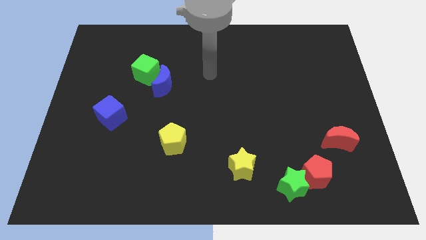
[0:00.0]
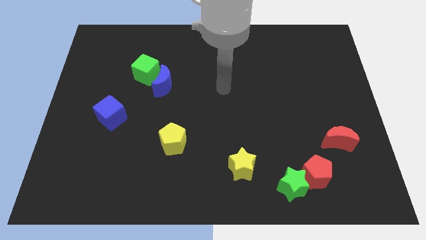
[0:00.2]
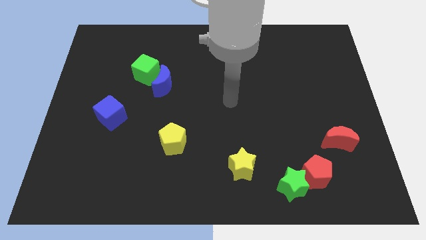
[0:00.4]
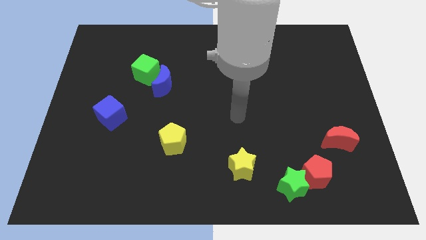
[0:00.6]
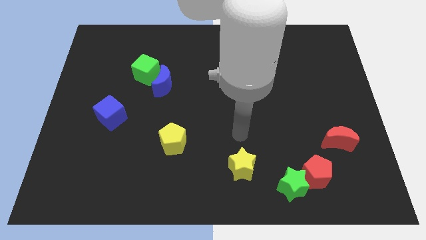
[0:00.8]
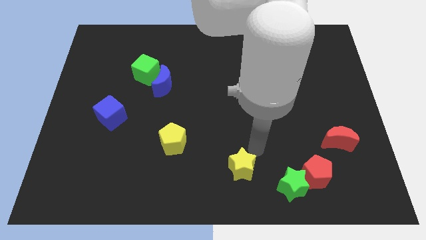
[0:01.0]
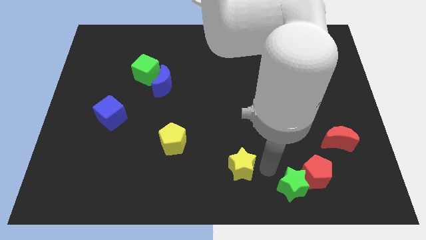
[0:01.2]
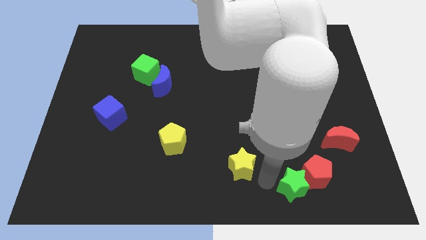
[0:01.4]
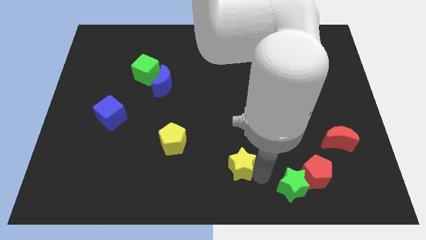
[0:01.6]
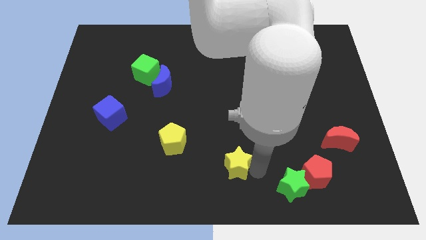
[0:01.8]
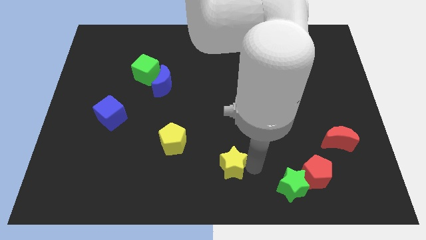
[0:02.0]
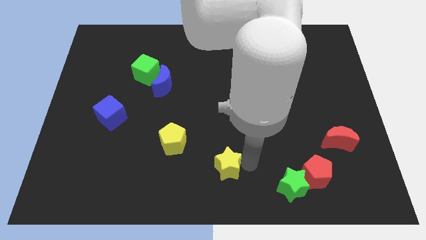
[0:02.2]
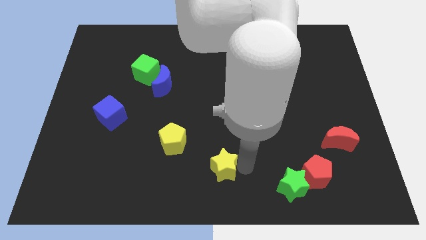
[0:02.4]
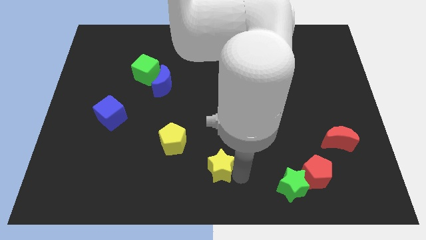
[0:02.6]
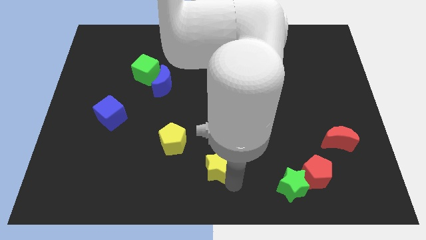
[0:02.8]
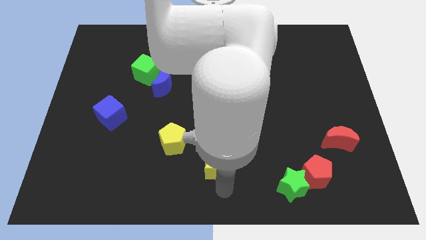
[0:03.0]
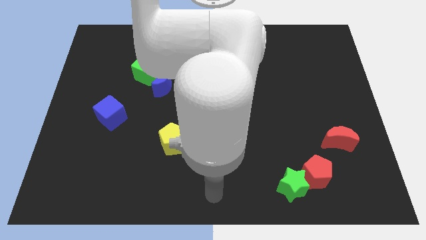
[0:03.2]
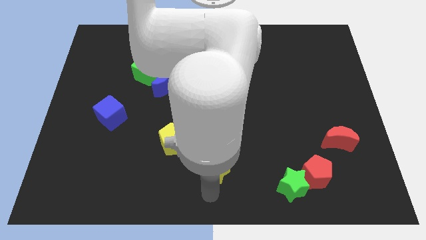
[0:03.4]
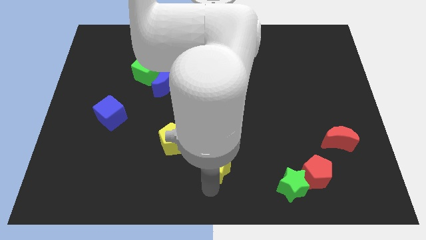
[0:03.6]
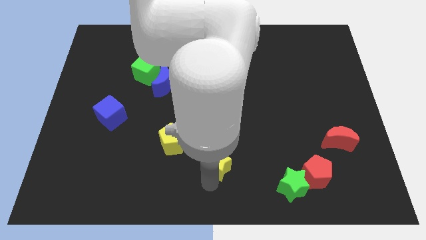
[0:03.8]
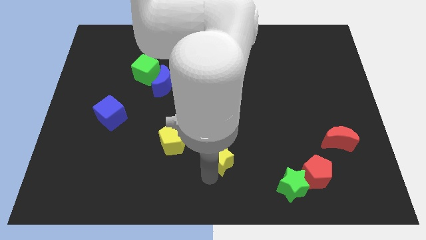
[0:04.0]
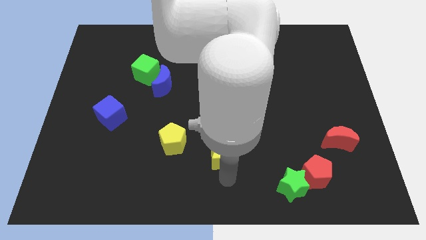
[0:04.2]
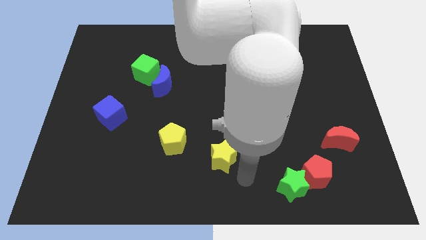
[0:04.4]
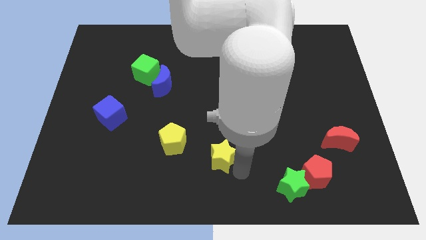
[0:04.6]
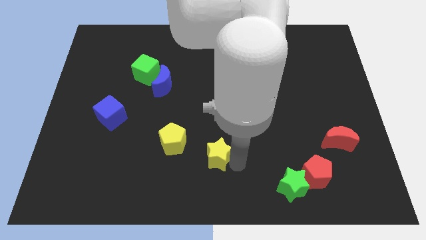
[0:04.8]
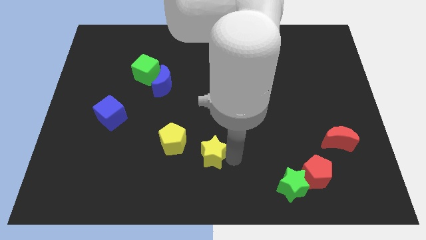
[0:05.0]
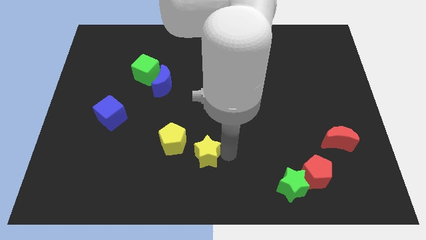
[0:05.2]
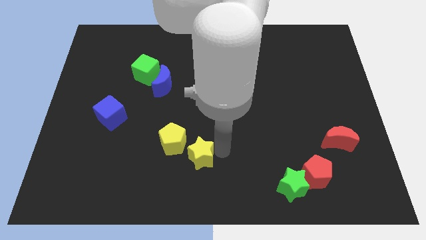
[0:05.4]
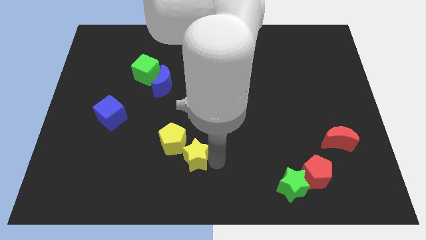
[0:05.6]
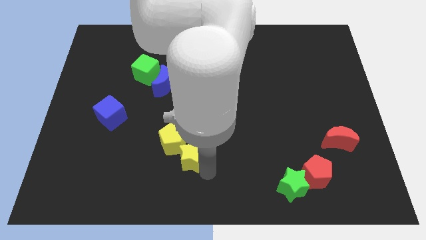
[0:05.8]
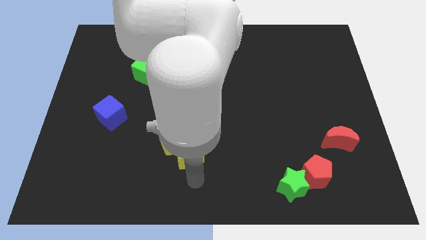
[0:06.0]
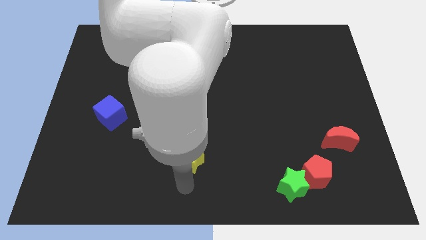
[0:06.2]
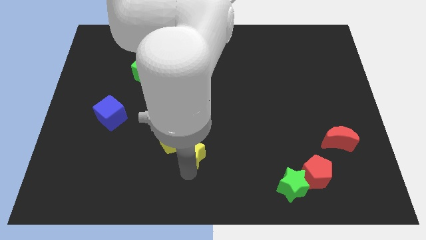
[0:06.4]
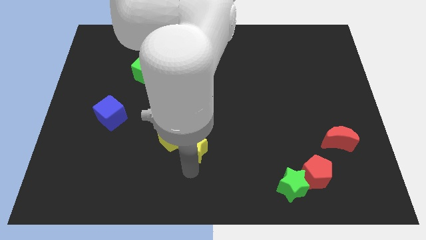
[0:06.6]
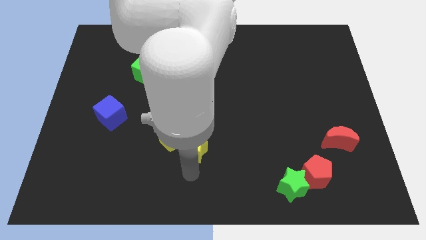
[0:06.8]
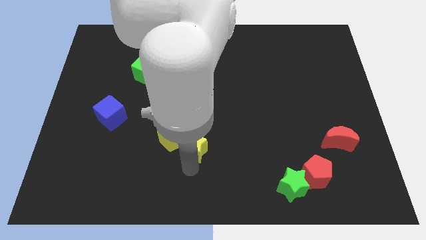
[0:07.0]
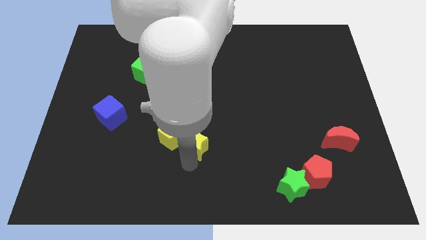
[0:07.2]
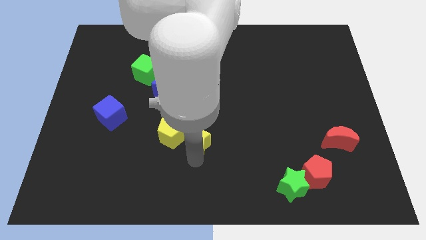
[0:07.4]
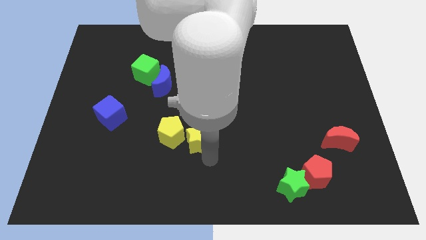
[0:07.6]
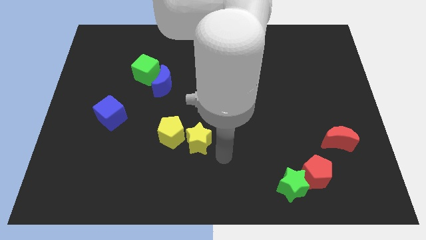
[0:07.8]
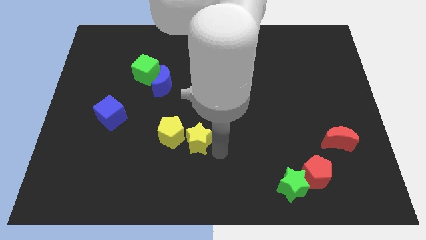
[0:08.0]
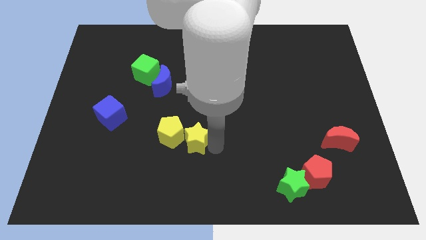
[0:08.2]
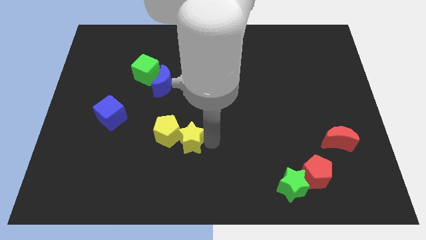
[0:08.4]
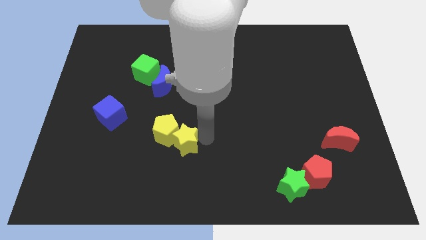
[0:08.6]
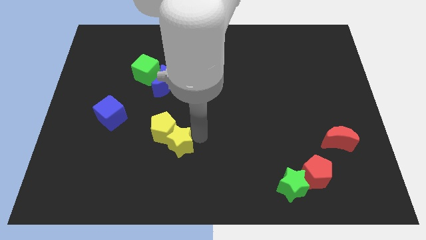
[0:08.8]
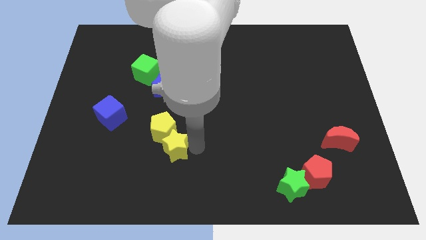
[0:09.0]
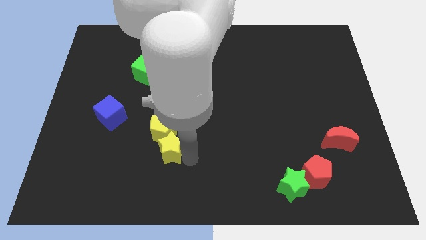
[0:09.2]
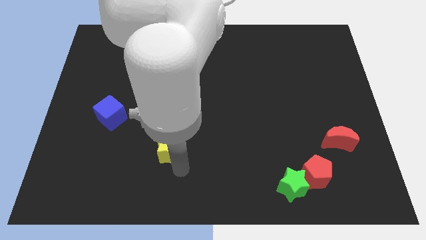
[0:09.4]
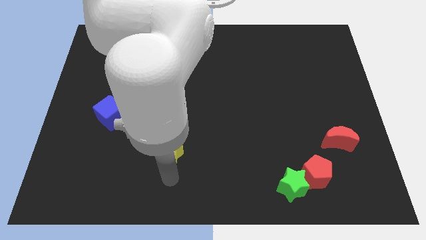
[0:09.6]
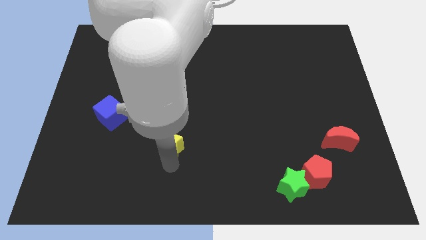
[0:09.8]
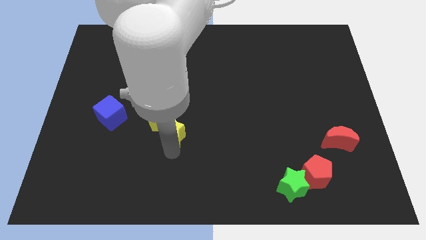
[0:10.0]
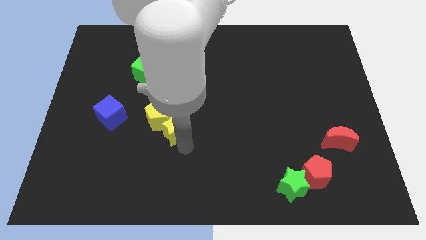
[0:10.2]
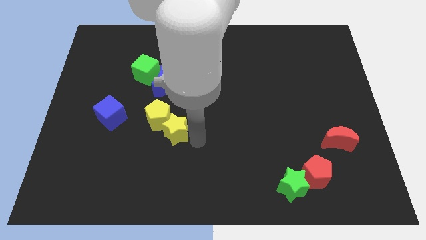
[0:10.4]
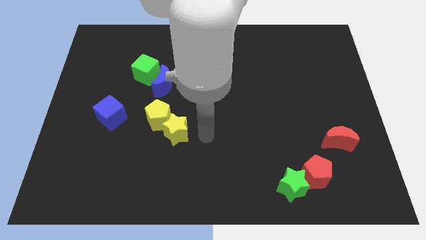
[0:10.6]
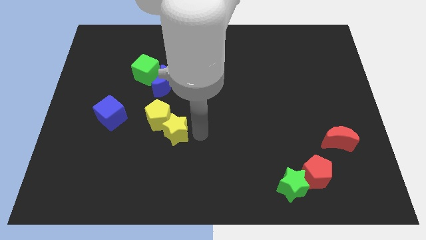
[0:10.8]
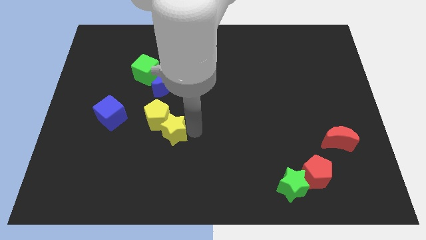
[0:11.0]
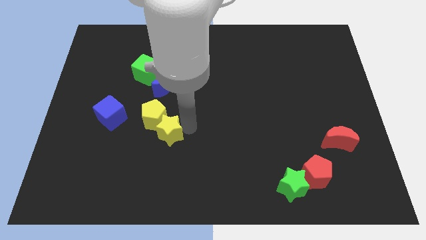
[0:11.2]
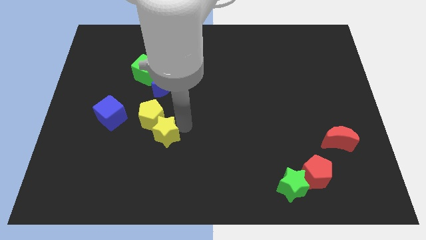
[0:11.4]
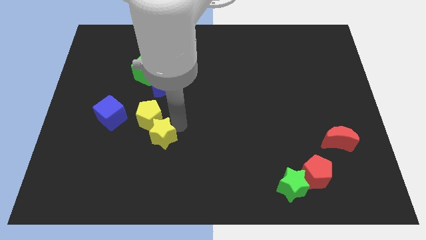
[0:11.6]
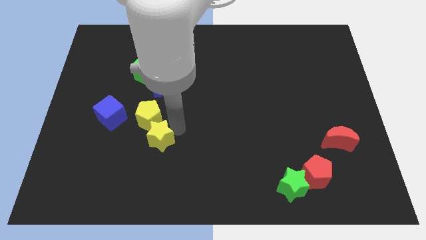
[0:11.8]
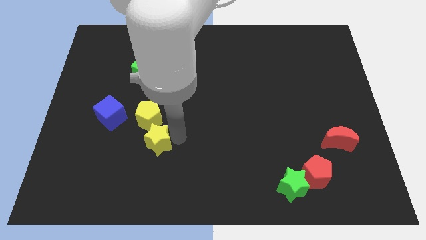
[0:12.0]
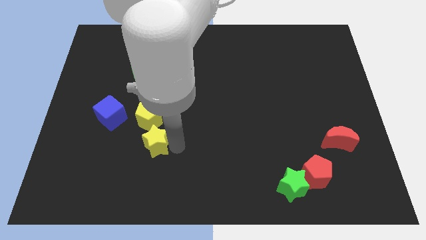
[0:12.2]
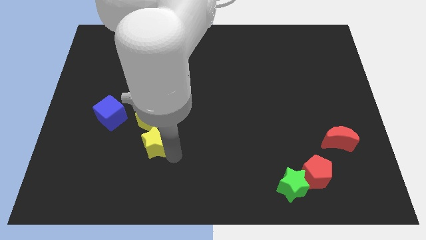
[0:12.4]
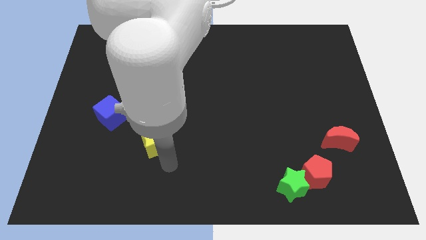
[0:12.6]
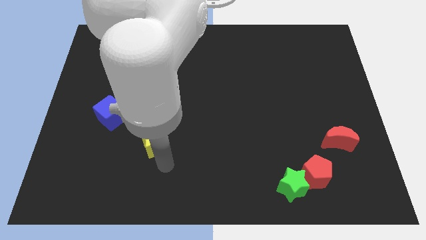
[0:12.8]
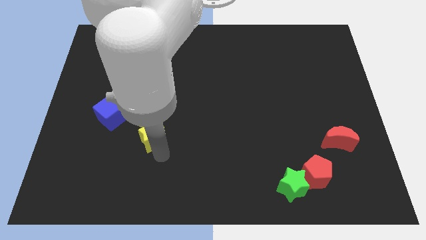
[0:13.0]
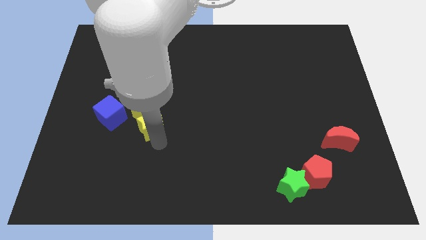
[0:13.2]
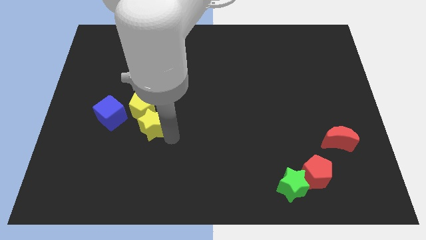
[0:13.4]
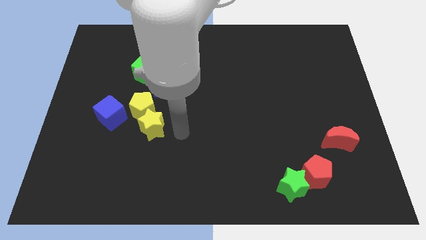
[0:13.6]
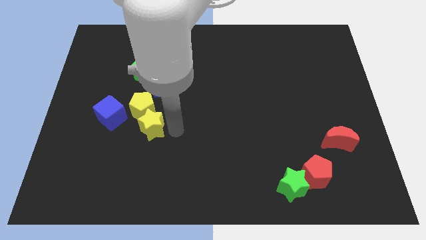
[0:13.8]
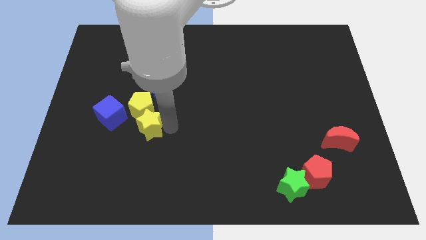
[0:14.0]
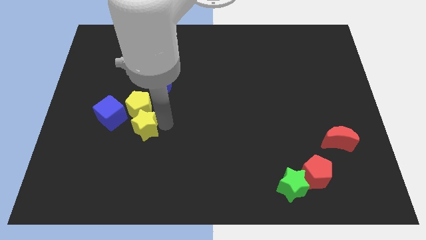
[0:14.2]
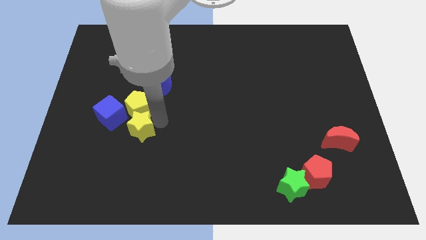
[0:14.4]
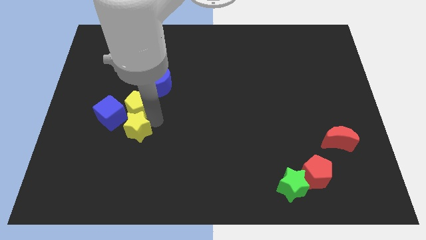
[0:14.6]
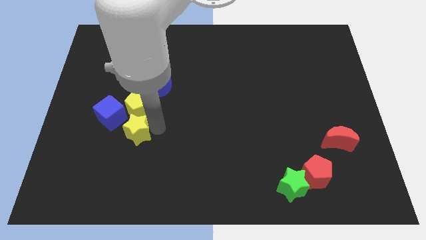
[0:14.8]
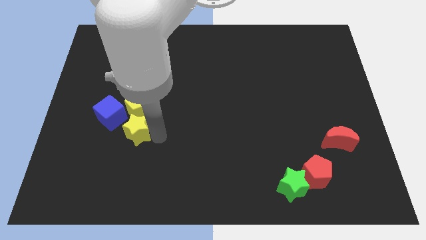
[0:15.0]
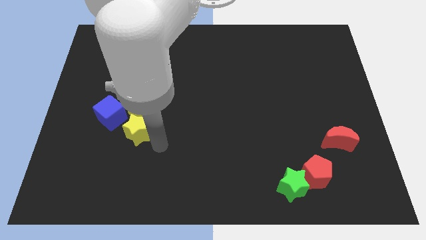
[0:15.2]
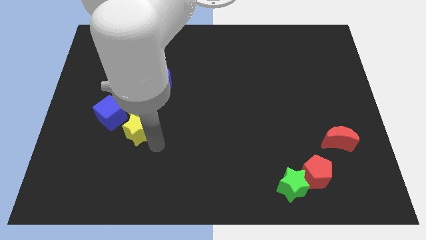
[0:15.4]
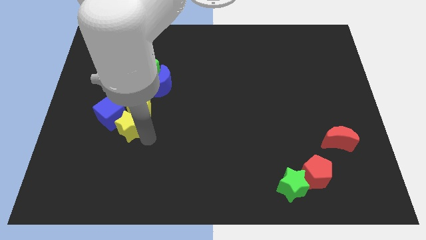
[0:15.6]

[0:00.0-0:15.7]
put the yellow star next to the blue cube

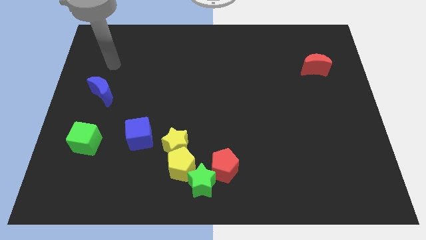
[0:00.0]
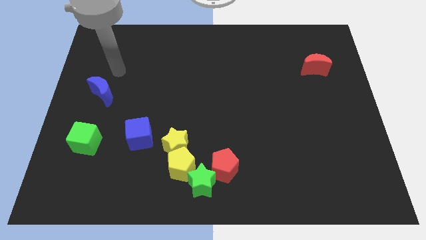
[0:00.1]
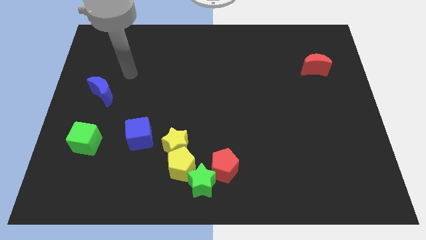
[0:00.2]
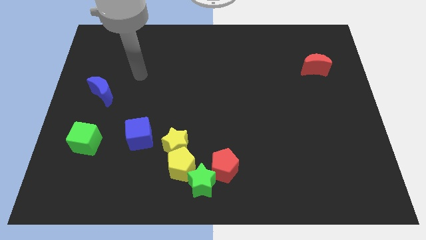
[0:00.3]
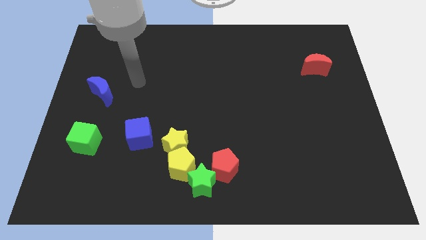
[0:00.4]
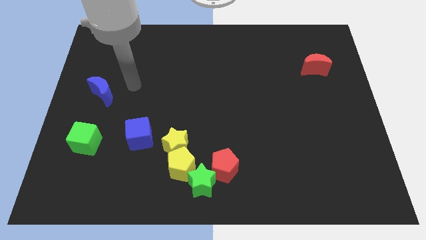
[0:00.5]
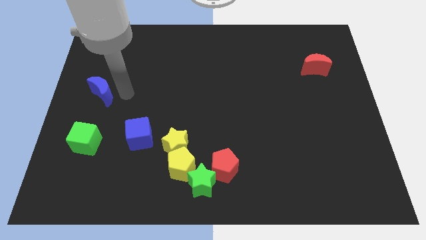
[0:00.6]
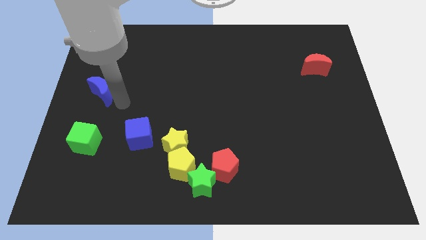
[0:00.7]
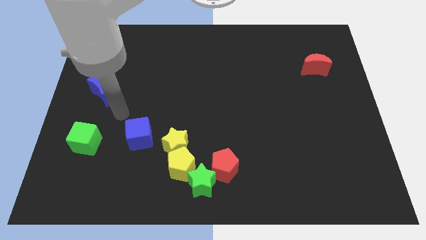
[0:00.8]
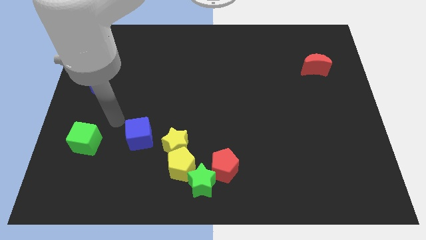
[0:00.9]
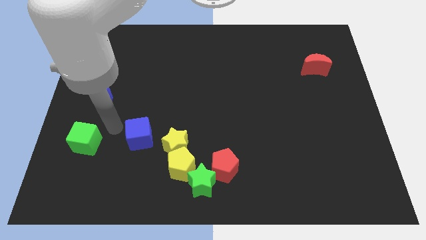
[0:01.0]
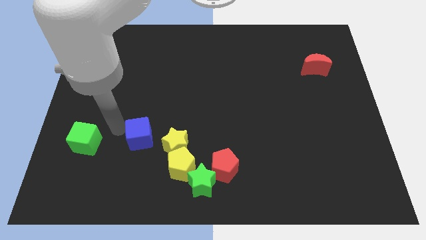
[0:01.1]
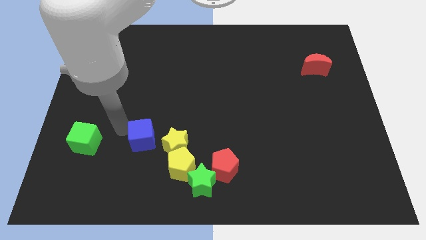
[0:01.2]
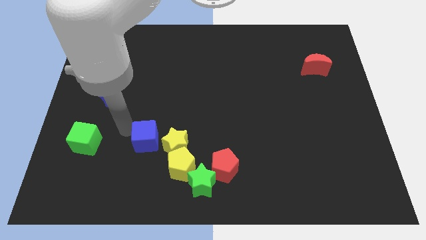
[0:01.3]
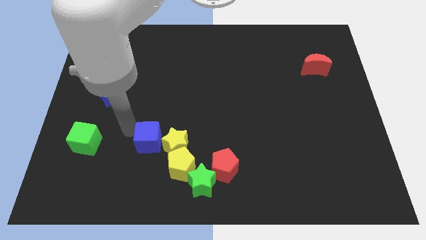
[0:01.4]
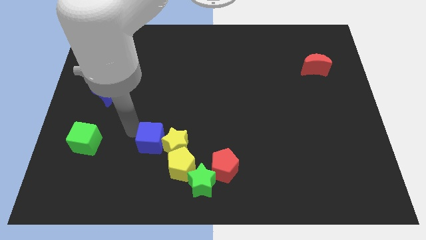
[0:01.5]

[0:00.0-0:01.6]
push the blue cube towards the yellow star
